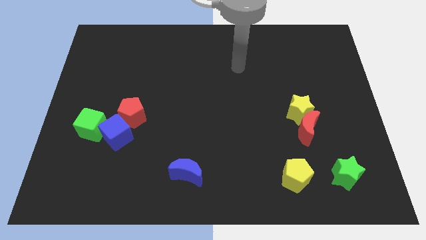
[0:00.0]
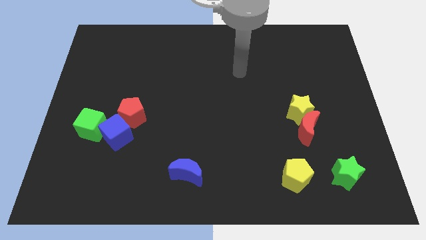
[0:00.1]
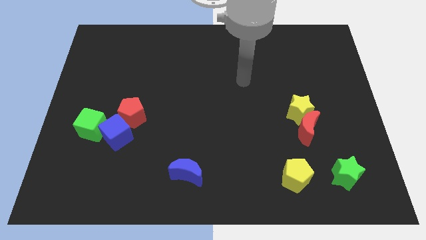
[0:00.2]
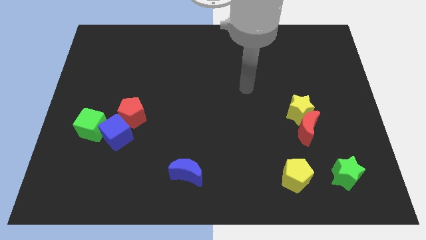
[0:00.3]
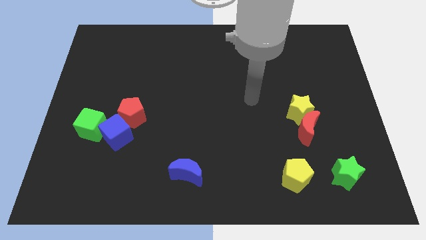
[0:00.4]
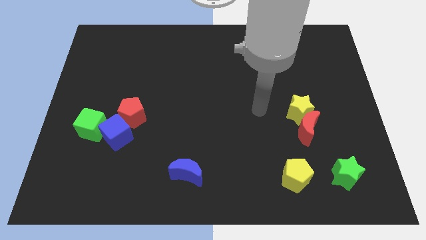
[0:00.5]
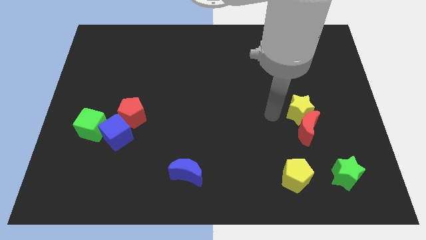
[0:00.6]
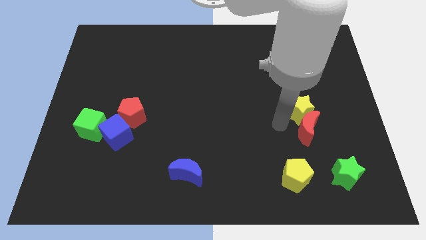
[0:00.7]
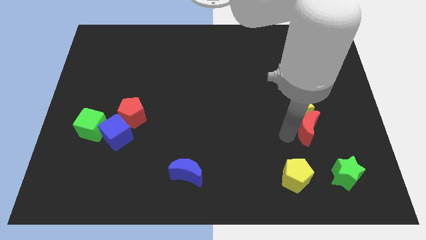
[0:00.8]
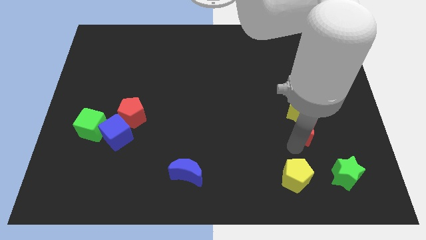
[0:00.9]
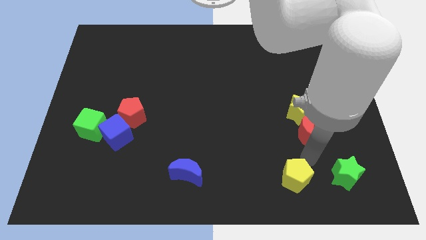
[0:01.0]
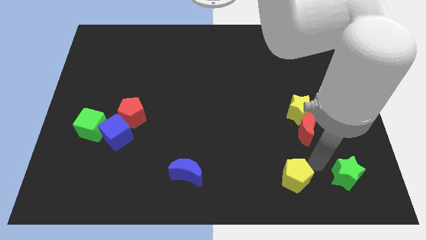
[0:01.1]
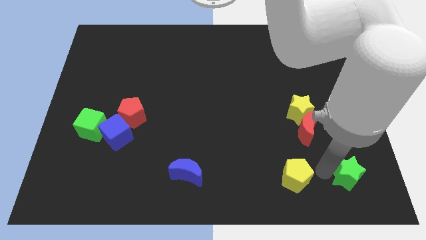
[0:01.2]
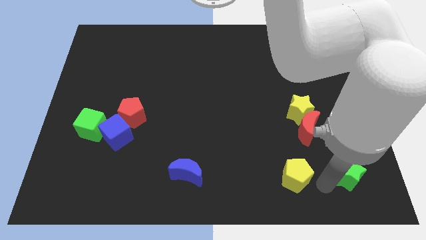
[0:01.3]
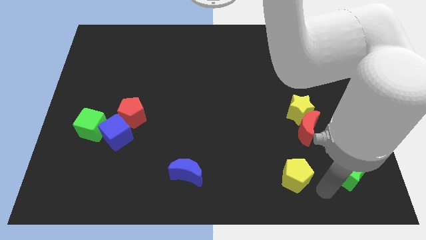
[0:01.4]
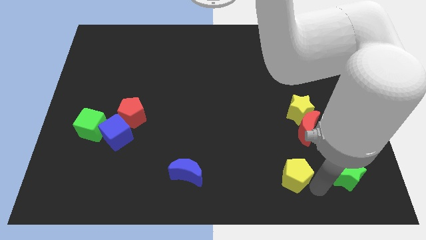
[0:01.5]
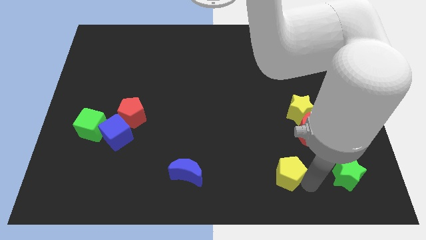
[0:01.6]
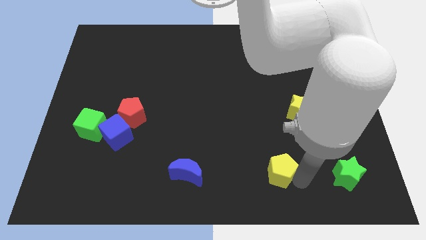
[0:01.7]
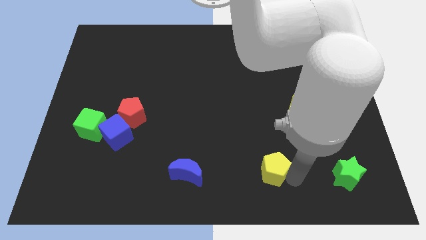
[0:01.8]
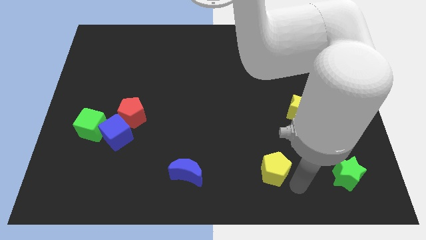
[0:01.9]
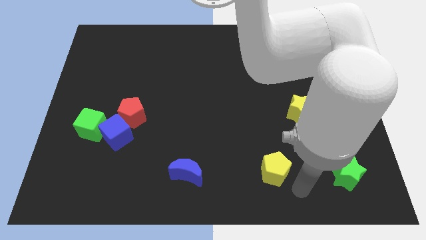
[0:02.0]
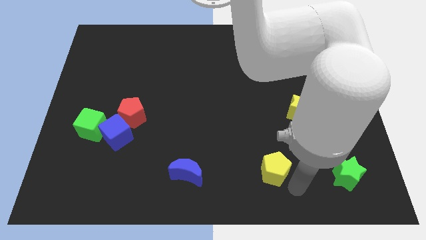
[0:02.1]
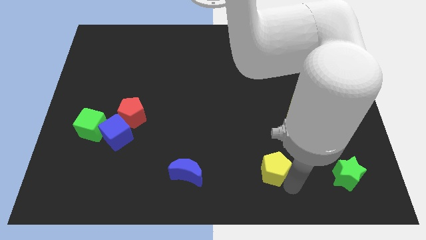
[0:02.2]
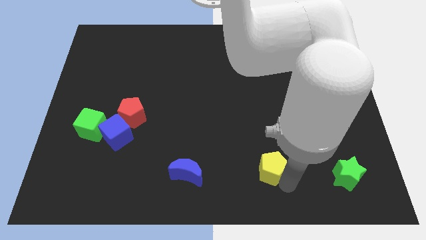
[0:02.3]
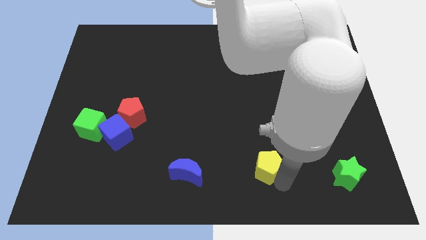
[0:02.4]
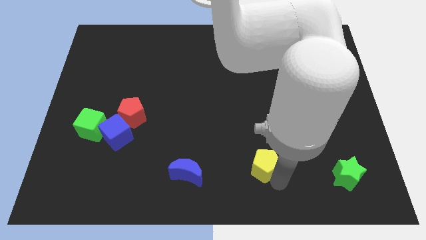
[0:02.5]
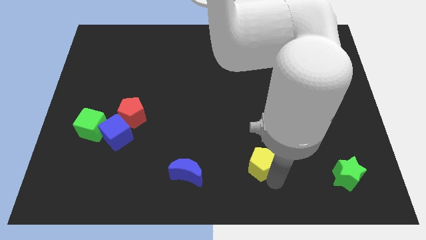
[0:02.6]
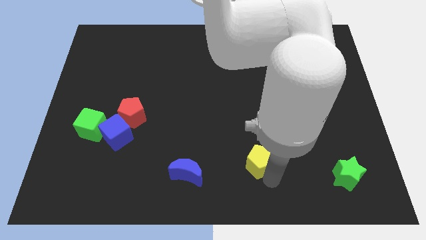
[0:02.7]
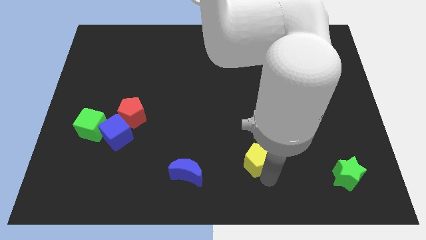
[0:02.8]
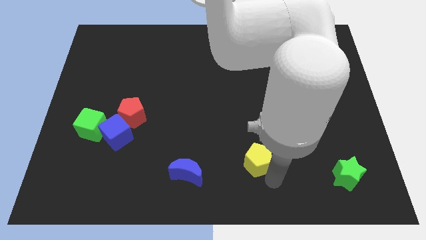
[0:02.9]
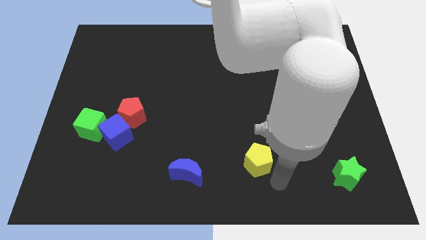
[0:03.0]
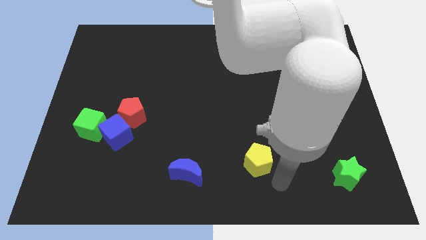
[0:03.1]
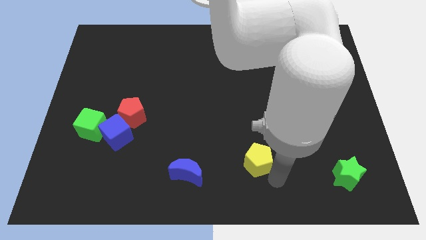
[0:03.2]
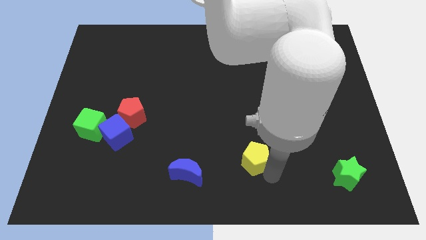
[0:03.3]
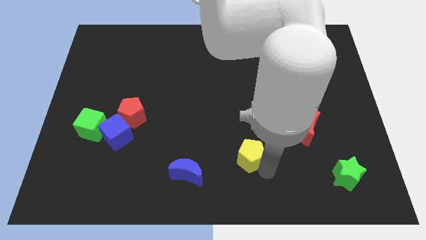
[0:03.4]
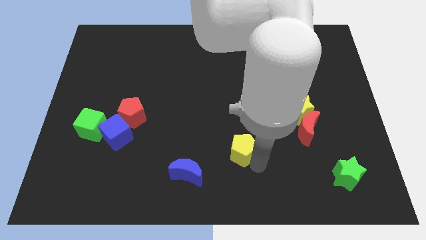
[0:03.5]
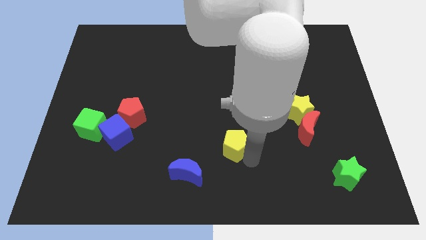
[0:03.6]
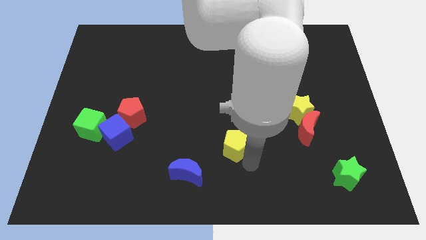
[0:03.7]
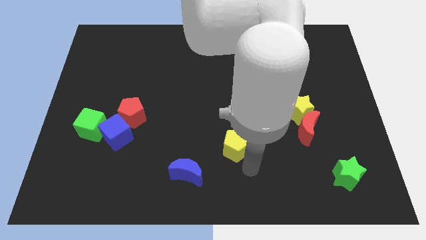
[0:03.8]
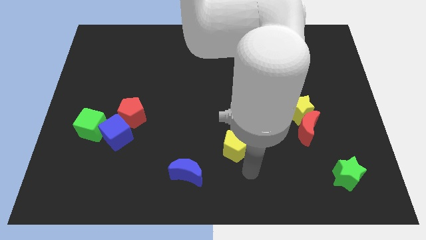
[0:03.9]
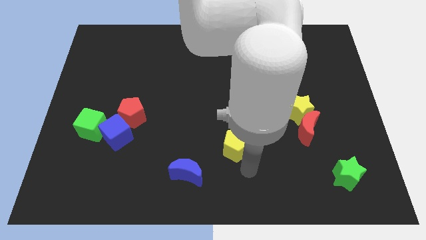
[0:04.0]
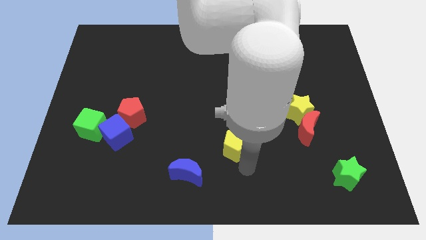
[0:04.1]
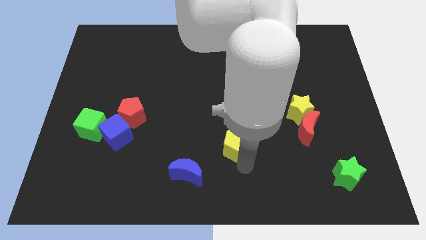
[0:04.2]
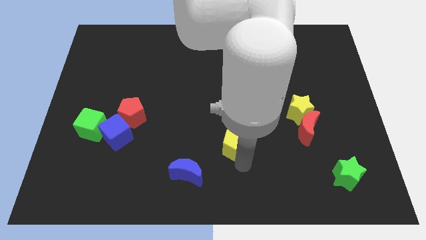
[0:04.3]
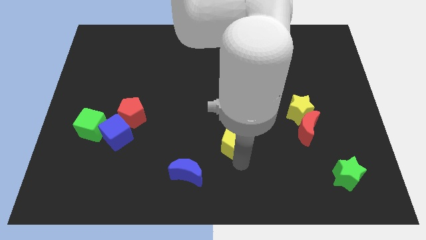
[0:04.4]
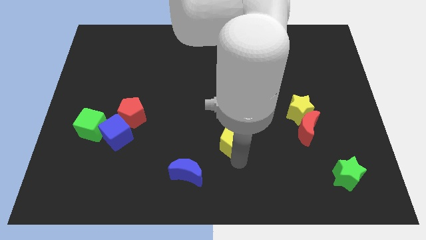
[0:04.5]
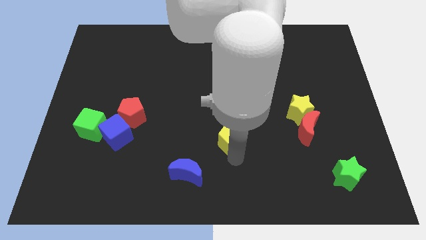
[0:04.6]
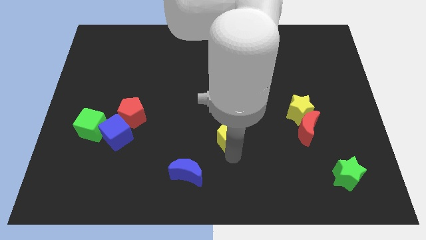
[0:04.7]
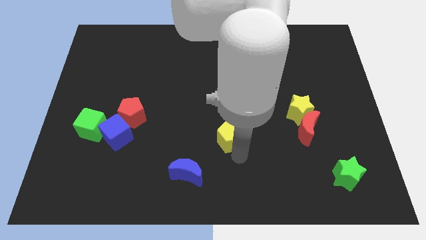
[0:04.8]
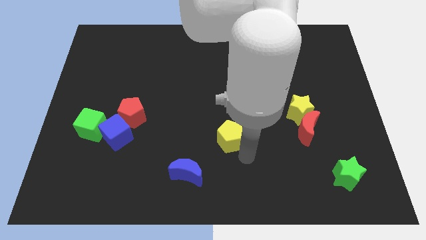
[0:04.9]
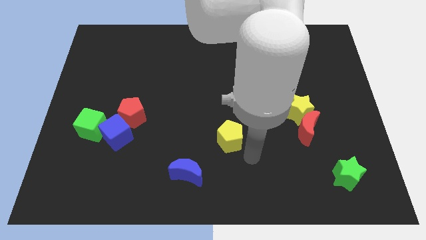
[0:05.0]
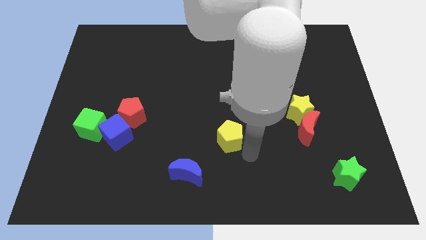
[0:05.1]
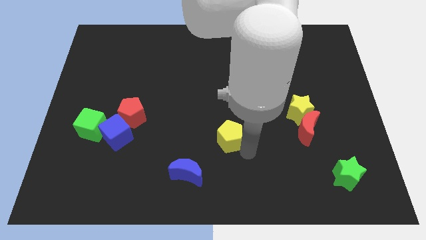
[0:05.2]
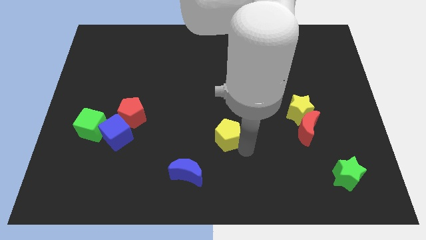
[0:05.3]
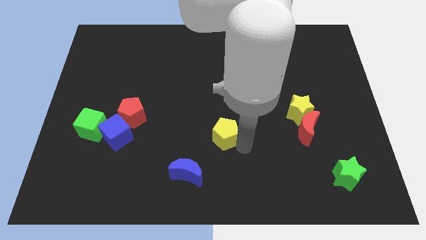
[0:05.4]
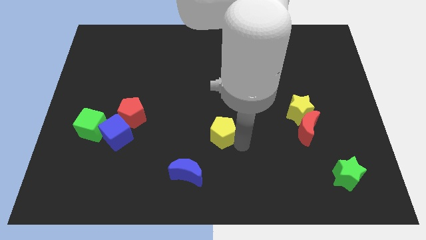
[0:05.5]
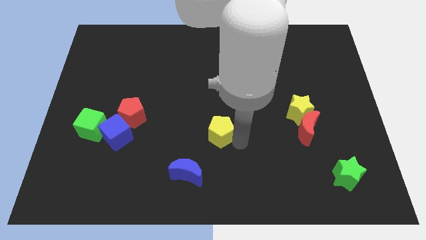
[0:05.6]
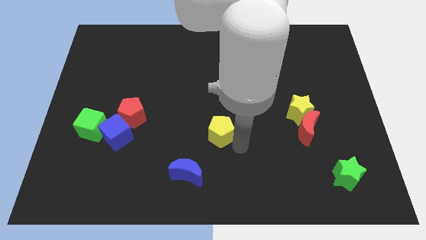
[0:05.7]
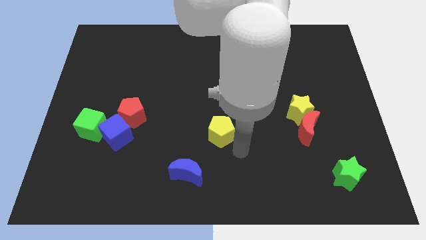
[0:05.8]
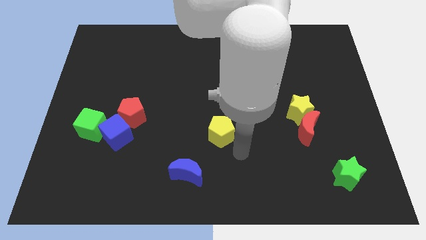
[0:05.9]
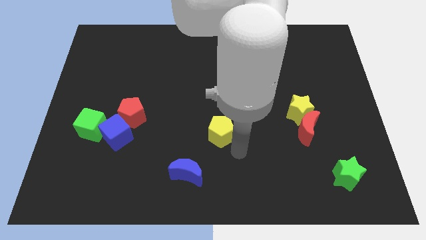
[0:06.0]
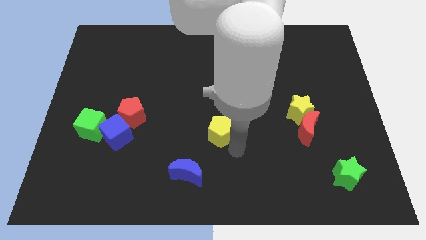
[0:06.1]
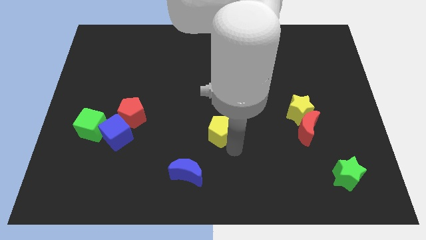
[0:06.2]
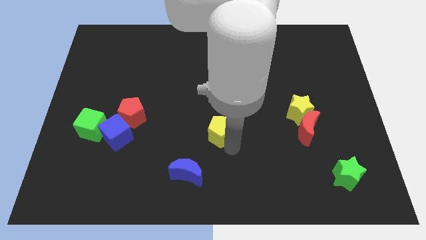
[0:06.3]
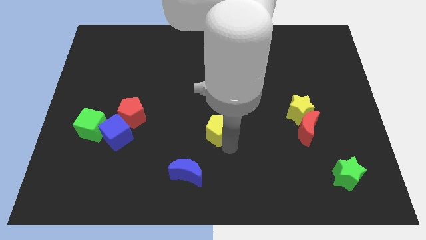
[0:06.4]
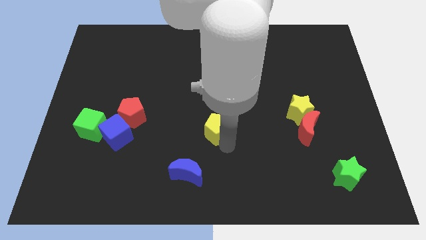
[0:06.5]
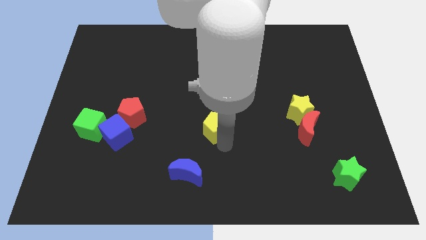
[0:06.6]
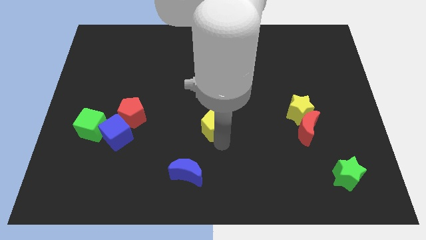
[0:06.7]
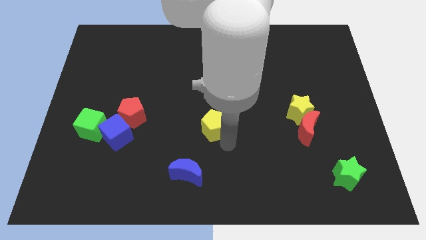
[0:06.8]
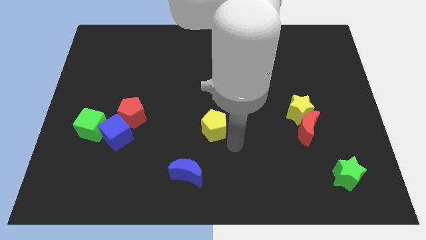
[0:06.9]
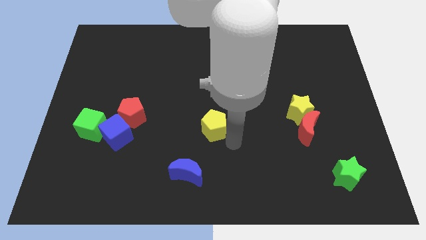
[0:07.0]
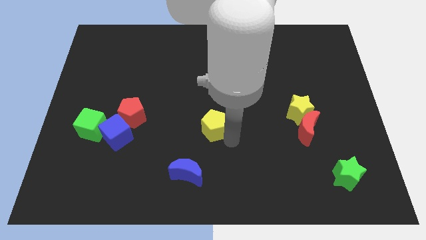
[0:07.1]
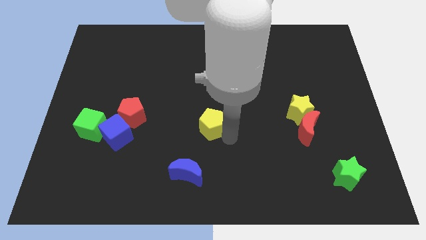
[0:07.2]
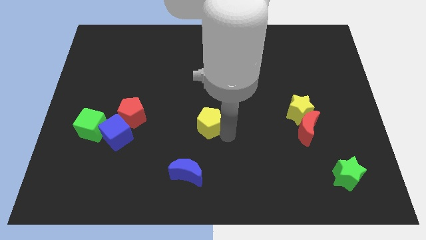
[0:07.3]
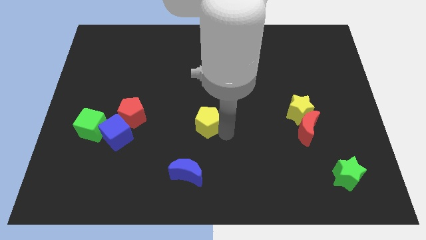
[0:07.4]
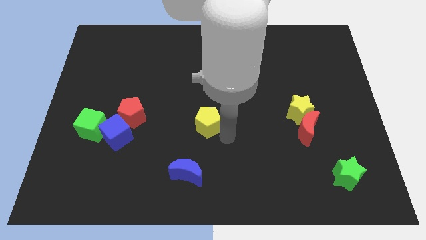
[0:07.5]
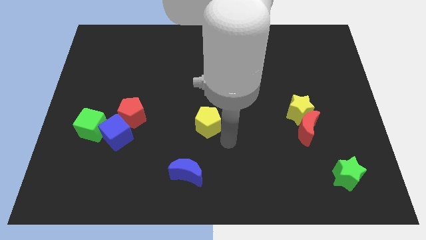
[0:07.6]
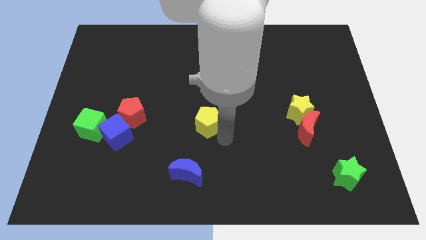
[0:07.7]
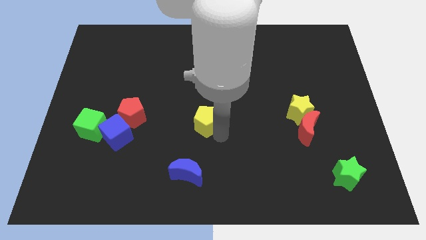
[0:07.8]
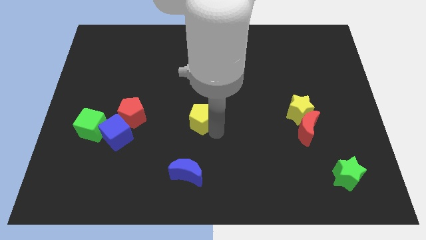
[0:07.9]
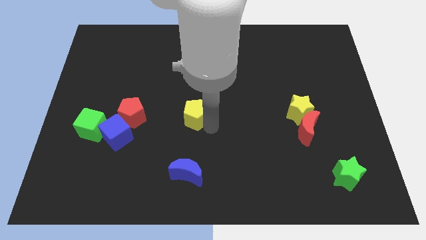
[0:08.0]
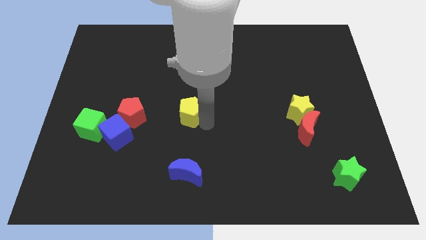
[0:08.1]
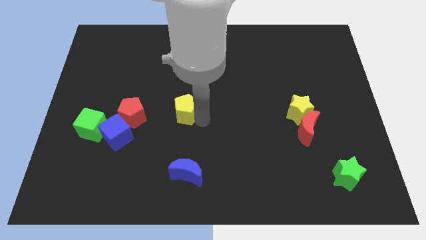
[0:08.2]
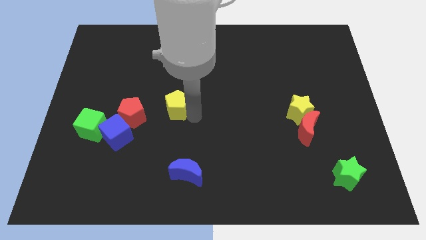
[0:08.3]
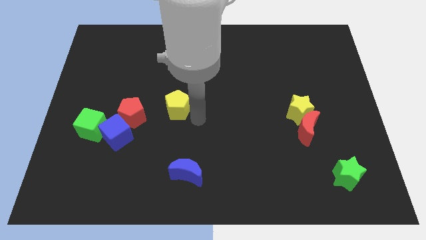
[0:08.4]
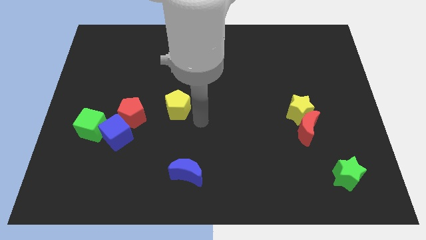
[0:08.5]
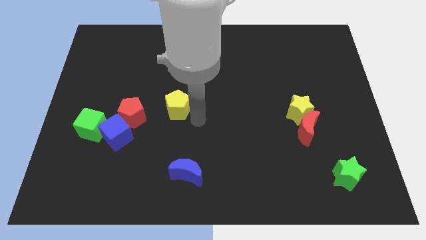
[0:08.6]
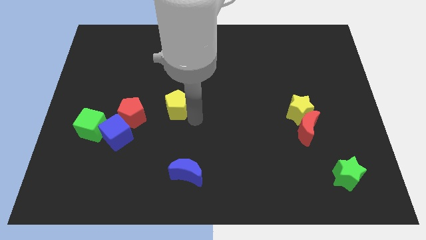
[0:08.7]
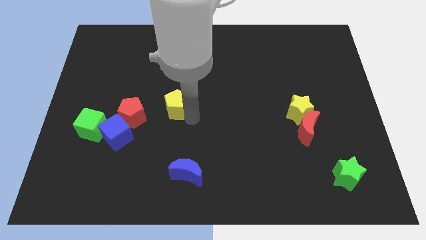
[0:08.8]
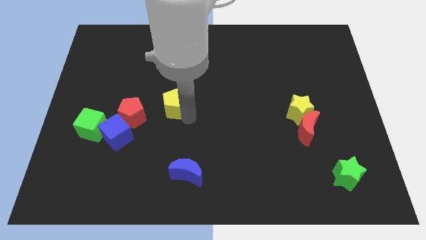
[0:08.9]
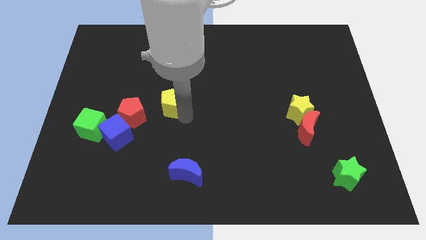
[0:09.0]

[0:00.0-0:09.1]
move the yellow pentagon to the top right side of the red pentagon
